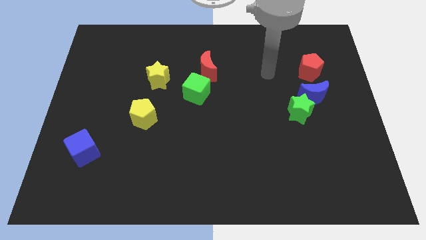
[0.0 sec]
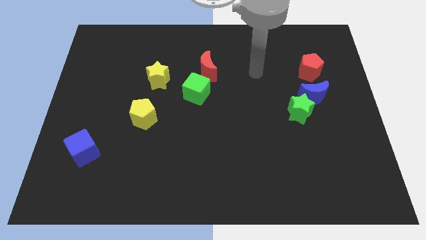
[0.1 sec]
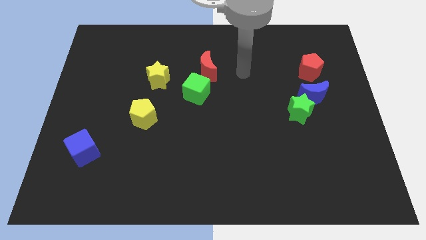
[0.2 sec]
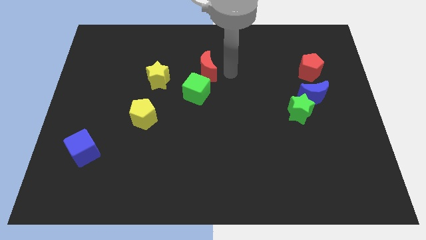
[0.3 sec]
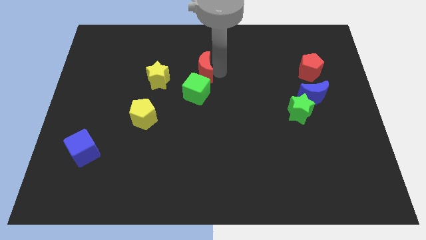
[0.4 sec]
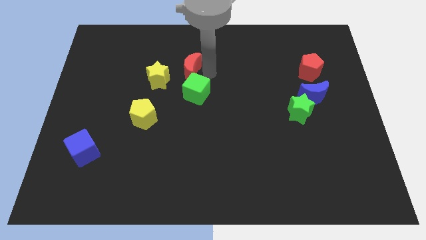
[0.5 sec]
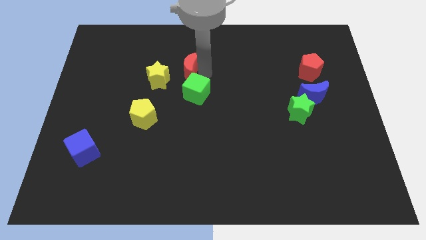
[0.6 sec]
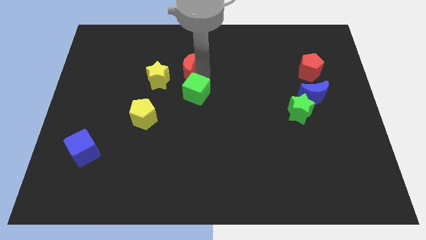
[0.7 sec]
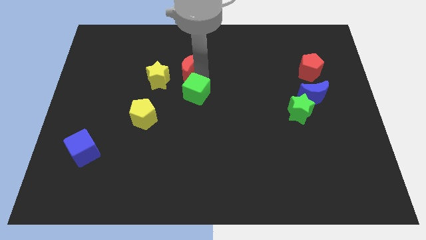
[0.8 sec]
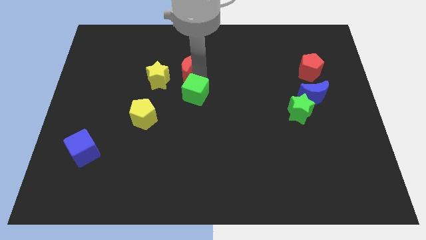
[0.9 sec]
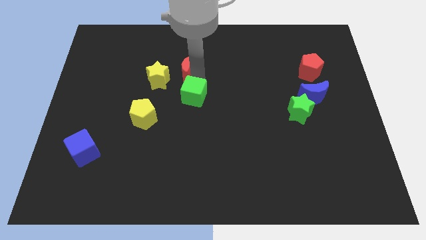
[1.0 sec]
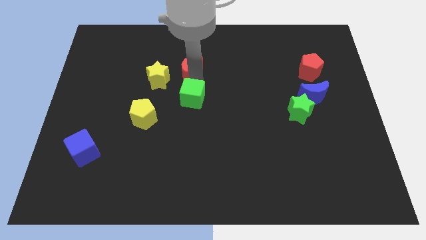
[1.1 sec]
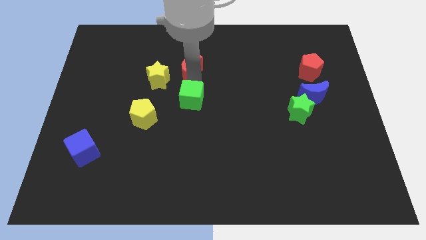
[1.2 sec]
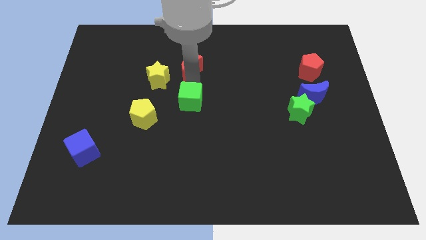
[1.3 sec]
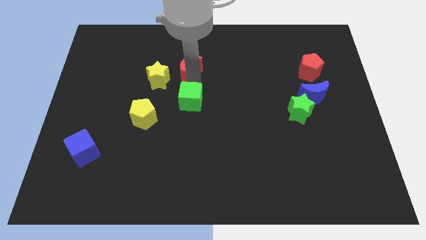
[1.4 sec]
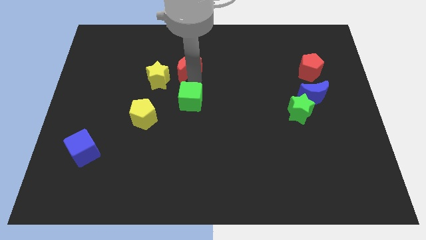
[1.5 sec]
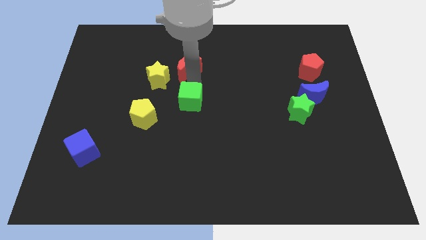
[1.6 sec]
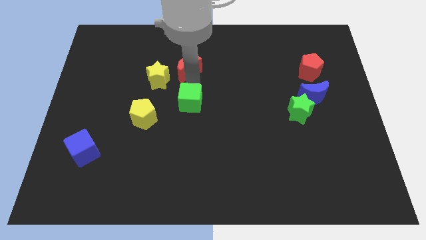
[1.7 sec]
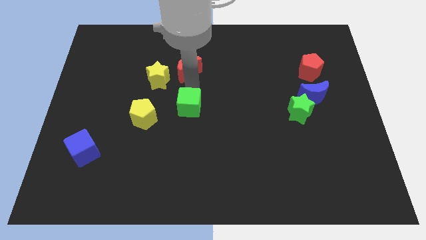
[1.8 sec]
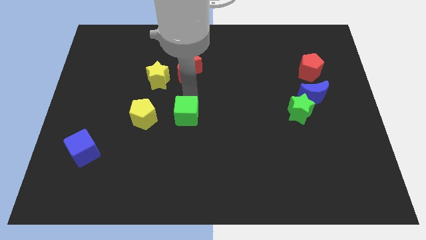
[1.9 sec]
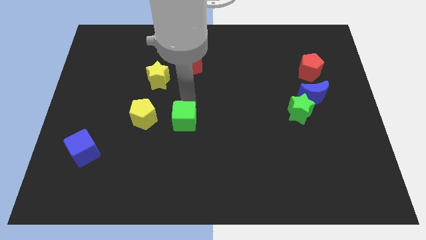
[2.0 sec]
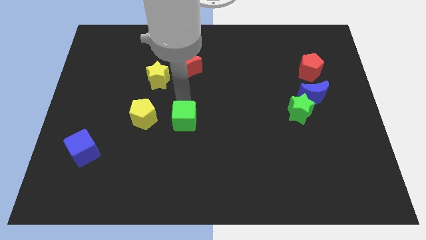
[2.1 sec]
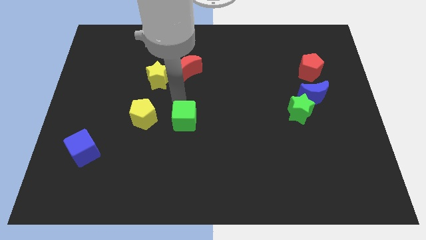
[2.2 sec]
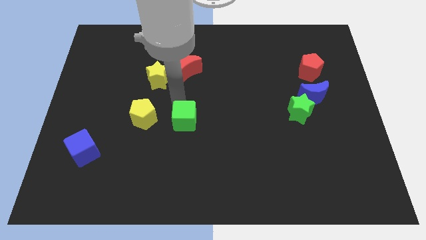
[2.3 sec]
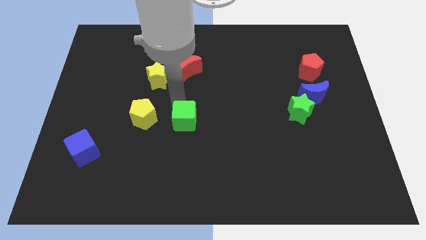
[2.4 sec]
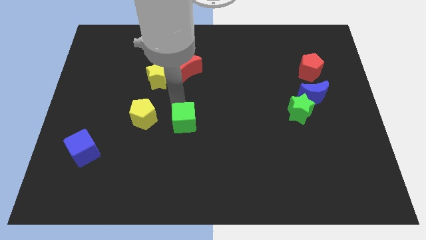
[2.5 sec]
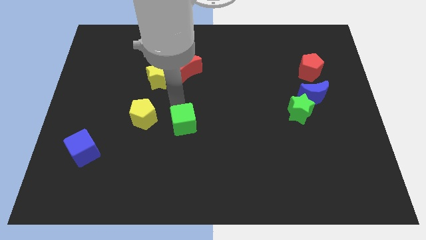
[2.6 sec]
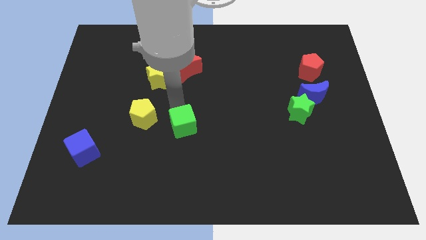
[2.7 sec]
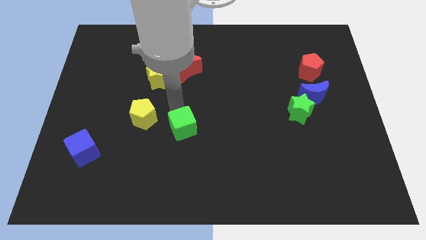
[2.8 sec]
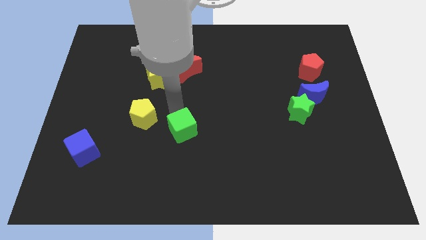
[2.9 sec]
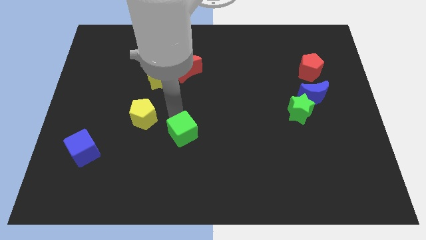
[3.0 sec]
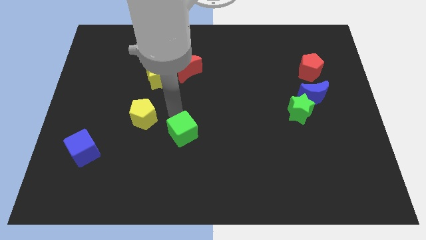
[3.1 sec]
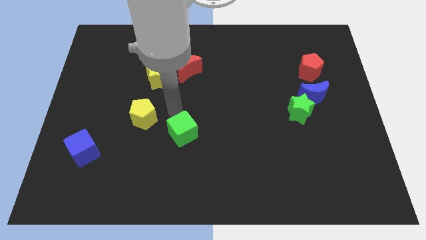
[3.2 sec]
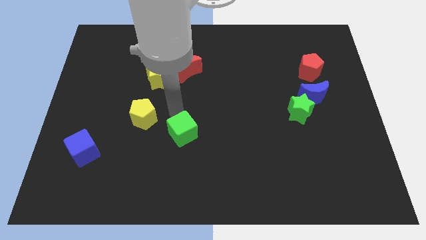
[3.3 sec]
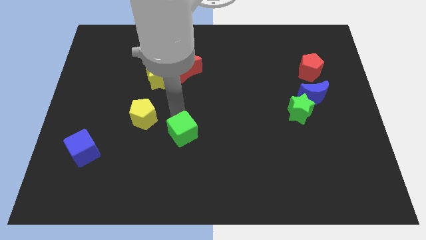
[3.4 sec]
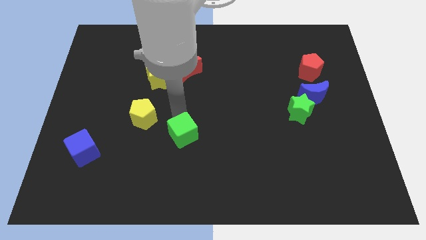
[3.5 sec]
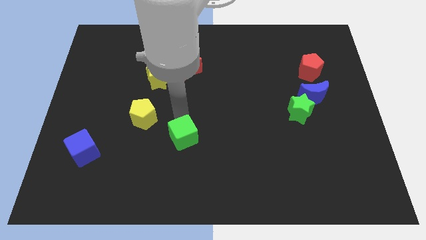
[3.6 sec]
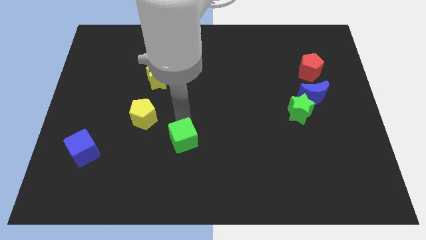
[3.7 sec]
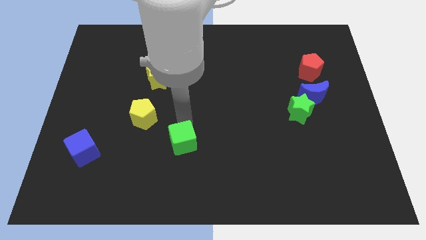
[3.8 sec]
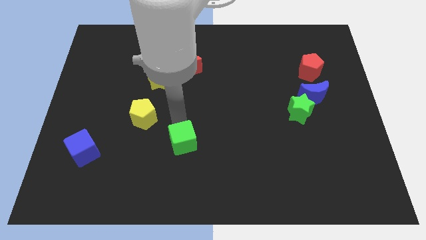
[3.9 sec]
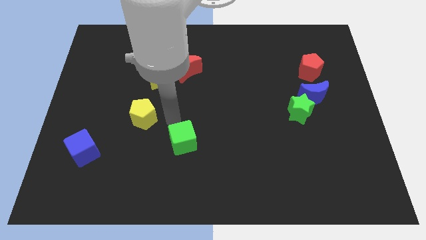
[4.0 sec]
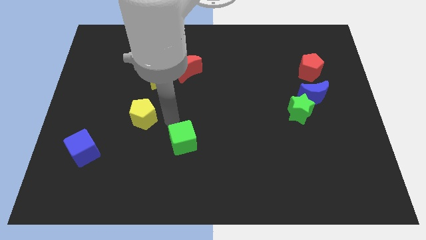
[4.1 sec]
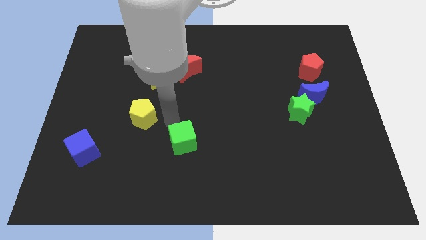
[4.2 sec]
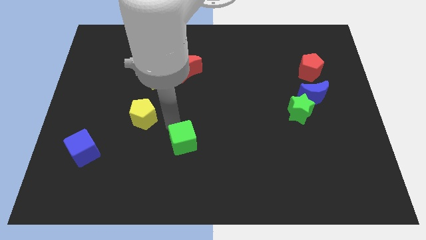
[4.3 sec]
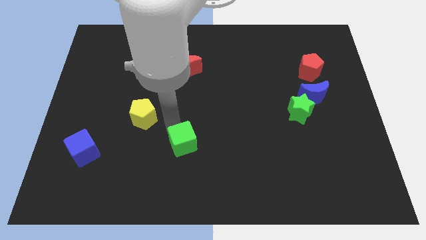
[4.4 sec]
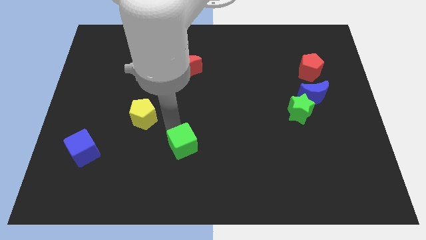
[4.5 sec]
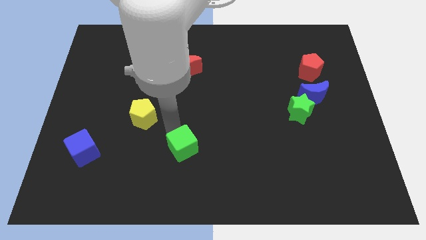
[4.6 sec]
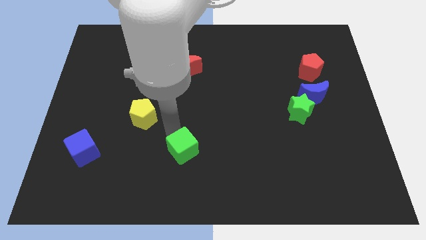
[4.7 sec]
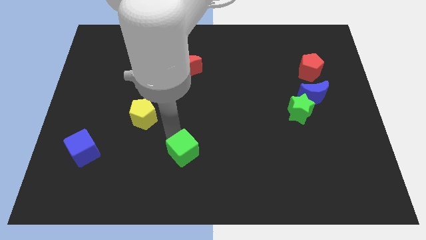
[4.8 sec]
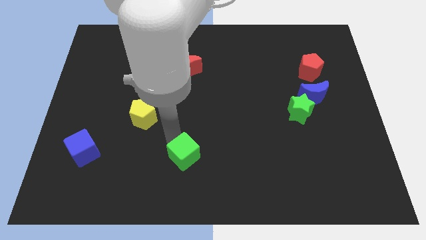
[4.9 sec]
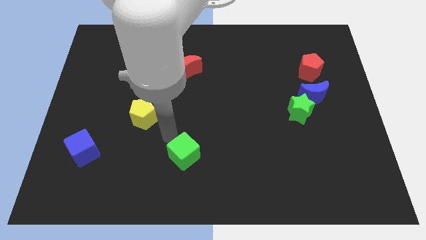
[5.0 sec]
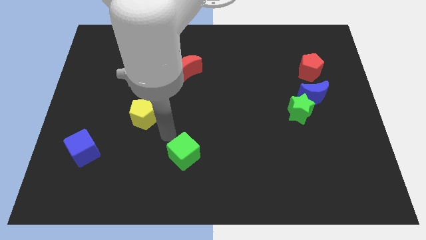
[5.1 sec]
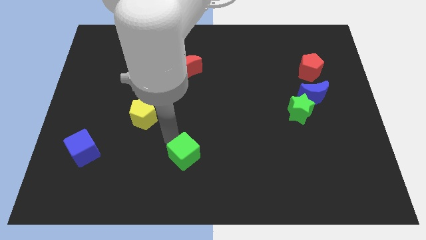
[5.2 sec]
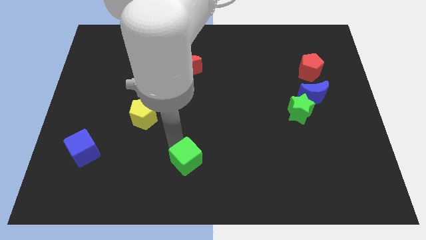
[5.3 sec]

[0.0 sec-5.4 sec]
move the green cube to the bottom side

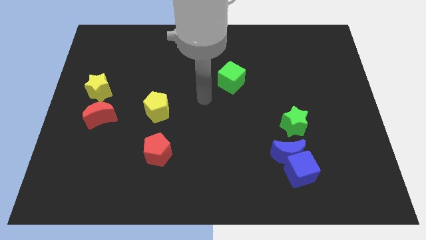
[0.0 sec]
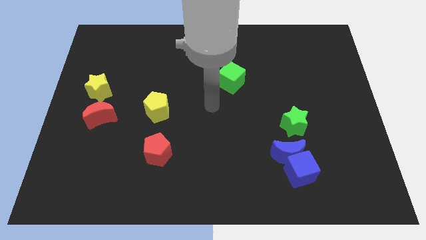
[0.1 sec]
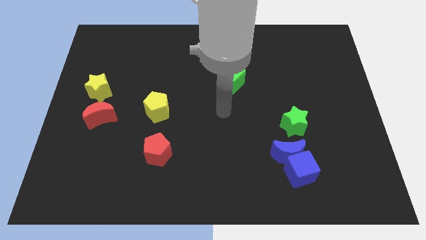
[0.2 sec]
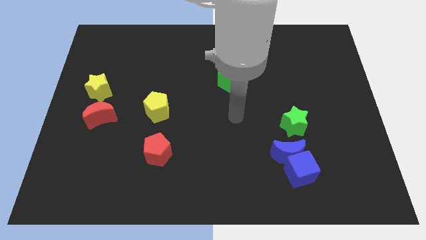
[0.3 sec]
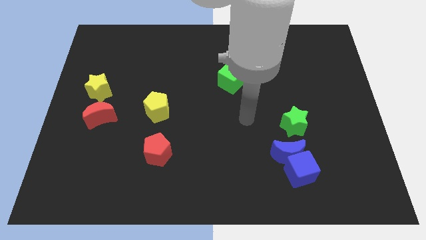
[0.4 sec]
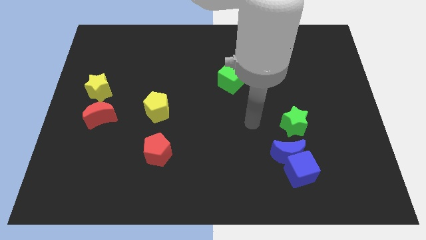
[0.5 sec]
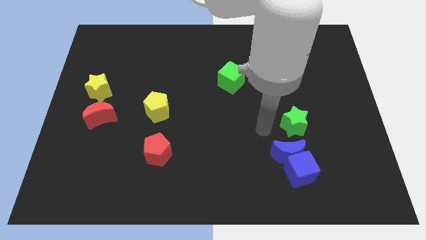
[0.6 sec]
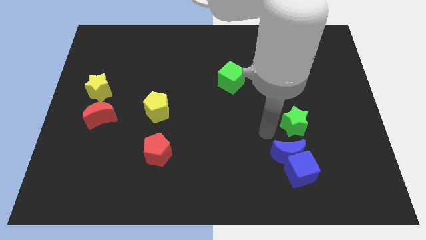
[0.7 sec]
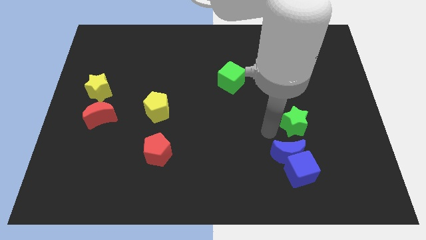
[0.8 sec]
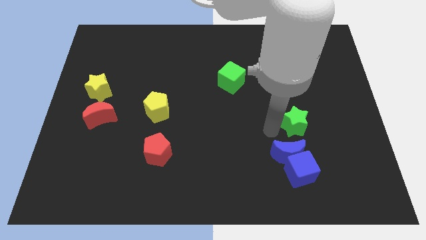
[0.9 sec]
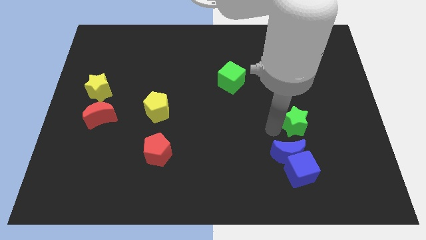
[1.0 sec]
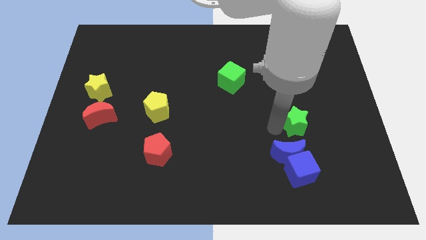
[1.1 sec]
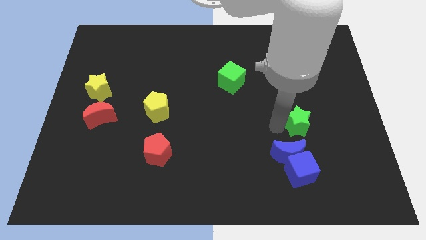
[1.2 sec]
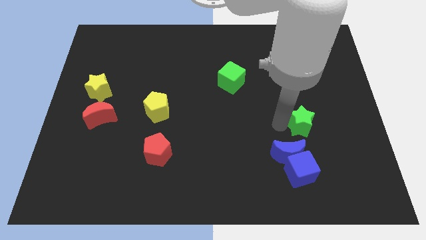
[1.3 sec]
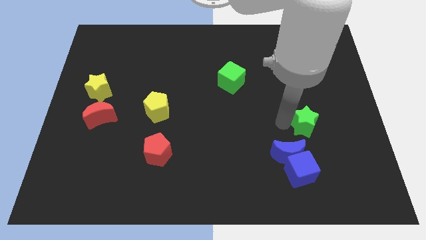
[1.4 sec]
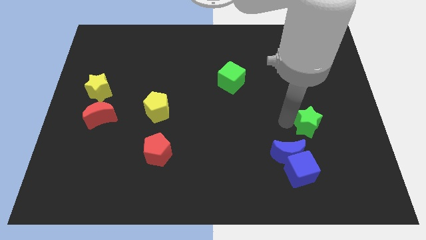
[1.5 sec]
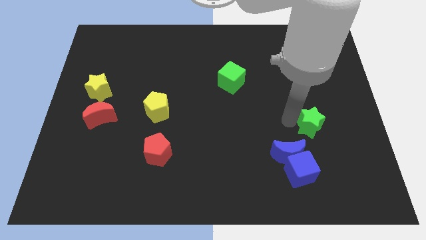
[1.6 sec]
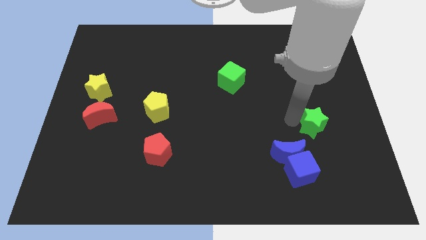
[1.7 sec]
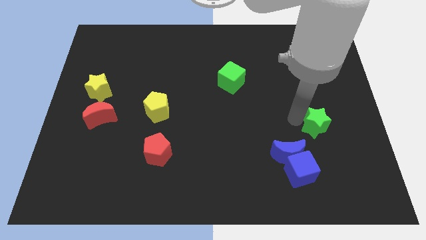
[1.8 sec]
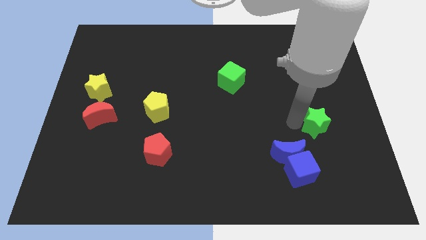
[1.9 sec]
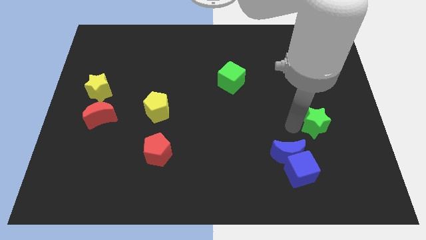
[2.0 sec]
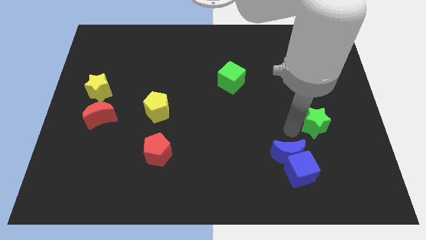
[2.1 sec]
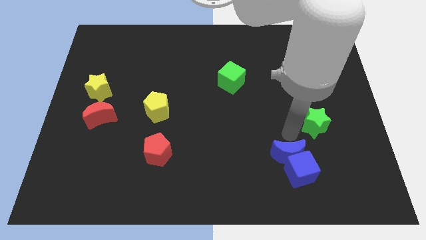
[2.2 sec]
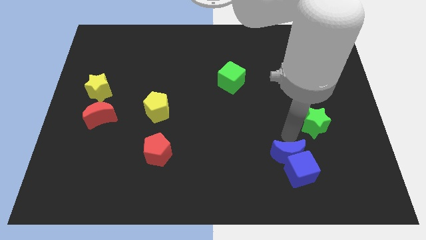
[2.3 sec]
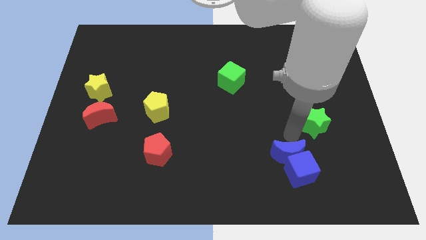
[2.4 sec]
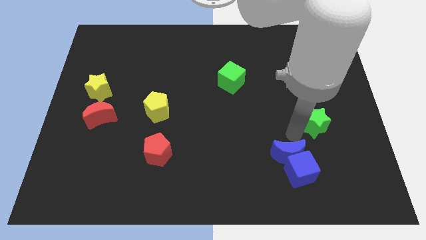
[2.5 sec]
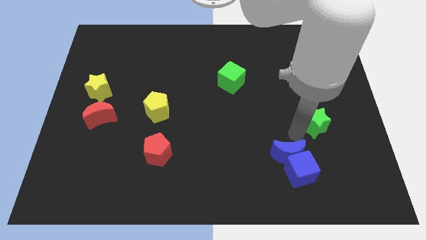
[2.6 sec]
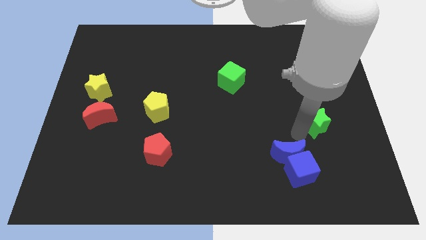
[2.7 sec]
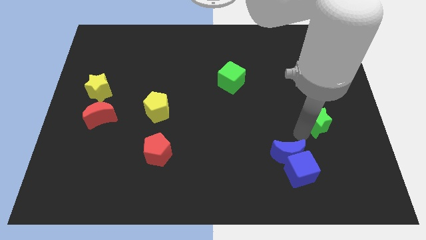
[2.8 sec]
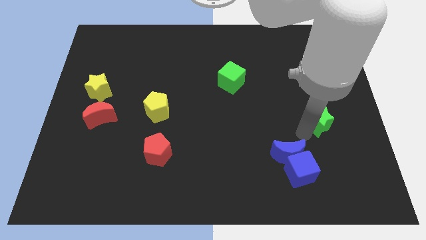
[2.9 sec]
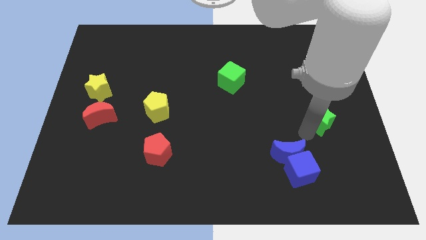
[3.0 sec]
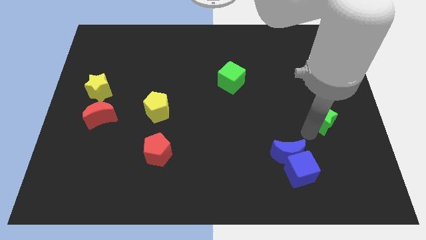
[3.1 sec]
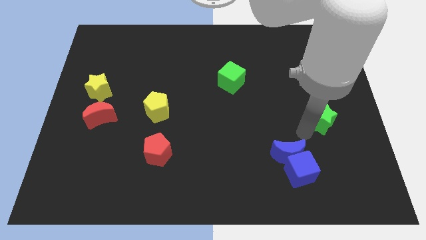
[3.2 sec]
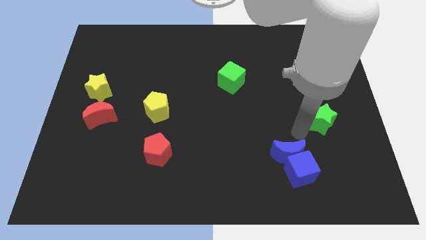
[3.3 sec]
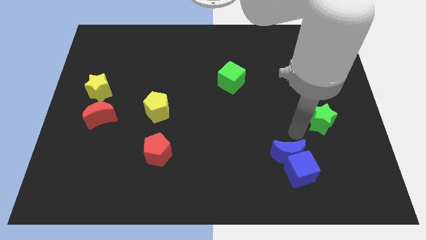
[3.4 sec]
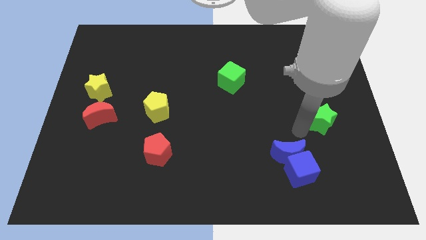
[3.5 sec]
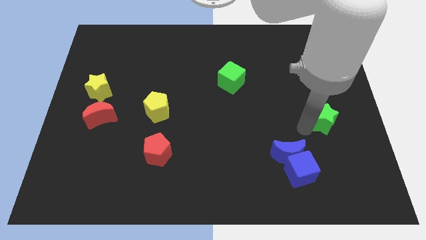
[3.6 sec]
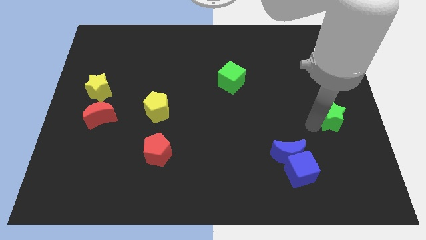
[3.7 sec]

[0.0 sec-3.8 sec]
move the green star to the right side of the board
